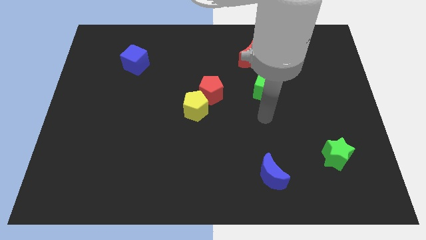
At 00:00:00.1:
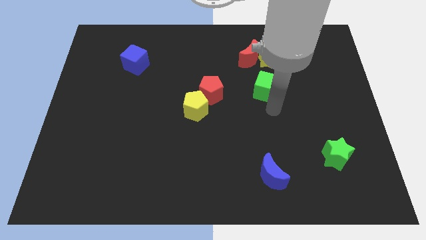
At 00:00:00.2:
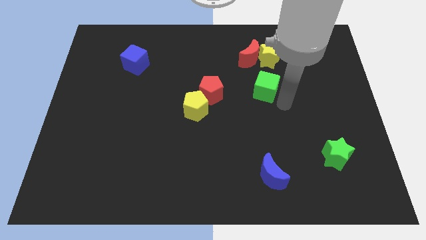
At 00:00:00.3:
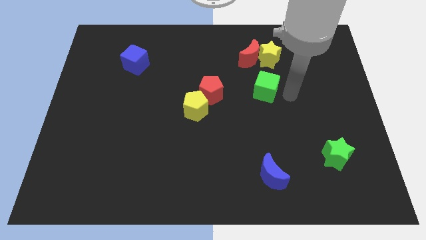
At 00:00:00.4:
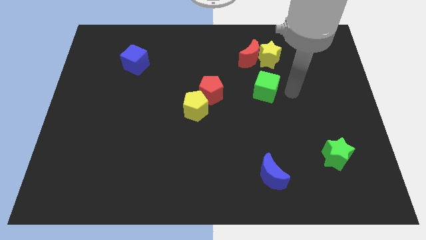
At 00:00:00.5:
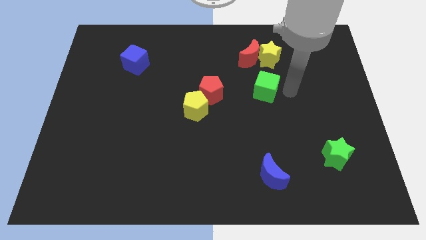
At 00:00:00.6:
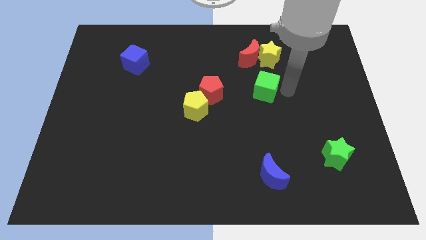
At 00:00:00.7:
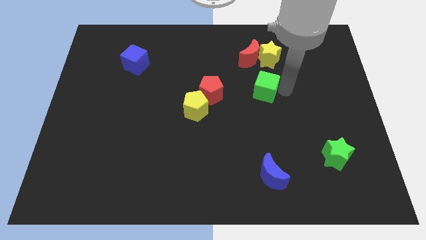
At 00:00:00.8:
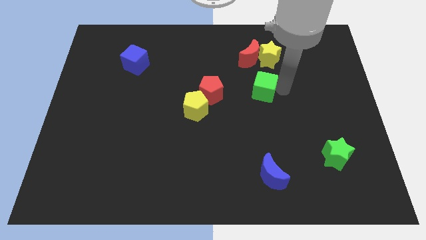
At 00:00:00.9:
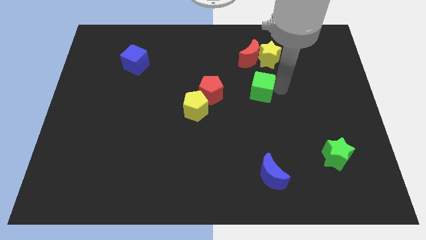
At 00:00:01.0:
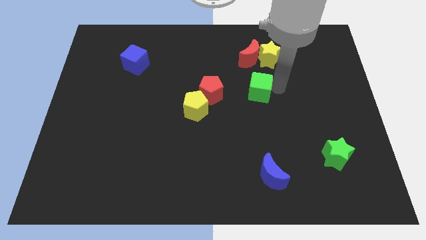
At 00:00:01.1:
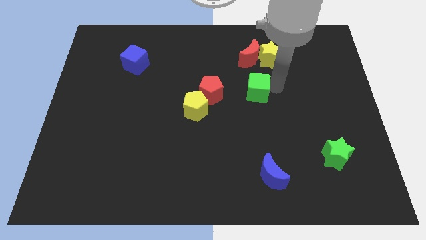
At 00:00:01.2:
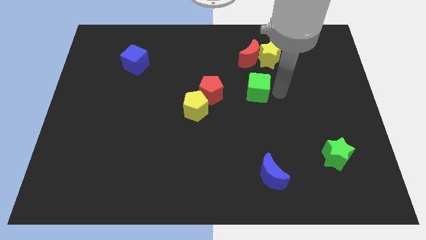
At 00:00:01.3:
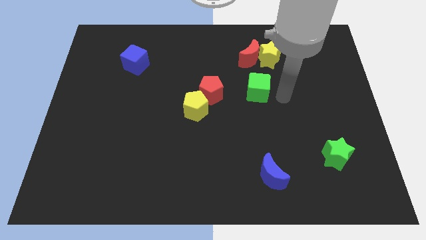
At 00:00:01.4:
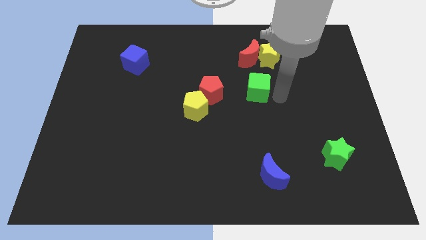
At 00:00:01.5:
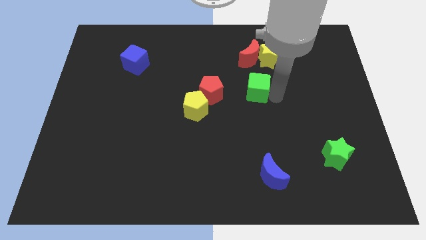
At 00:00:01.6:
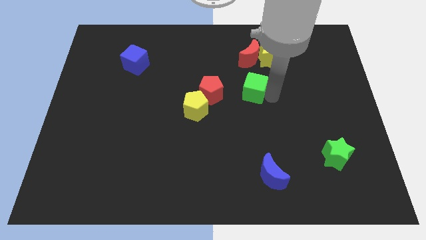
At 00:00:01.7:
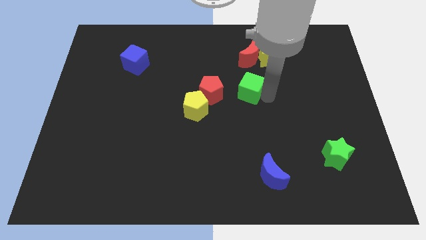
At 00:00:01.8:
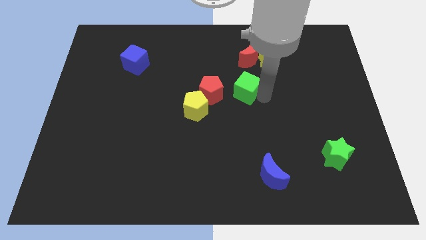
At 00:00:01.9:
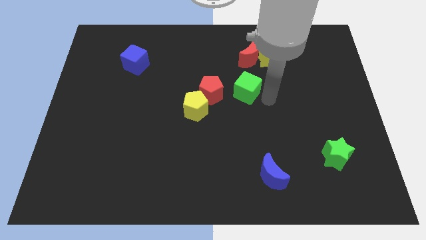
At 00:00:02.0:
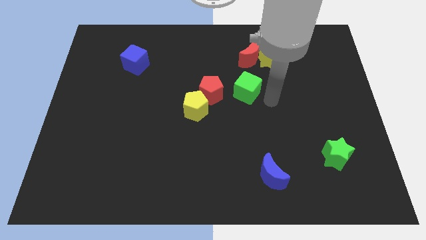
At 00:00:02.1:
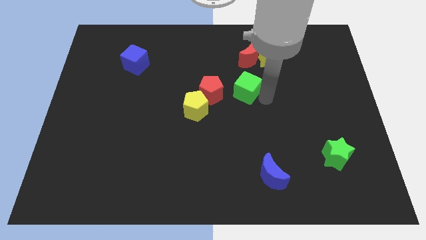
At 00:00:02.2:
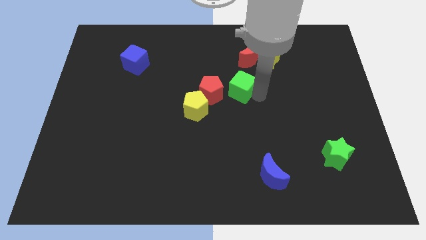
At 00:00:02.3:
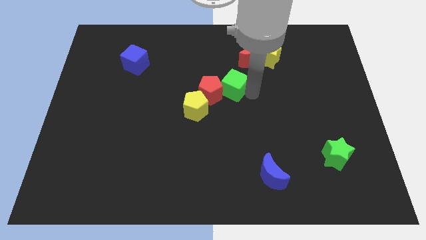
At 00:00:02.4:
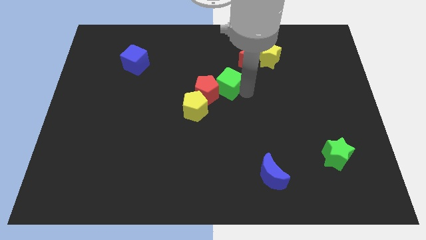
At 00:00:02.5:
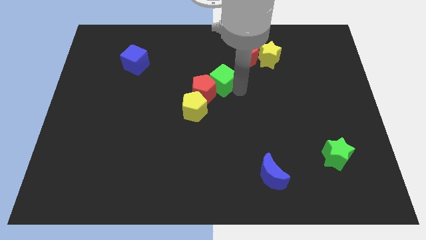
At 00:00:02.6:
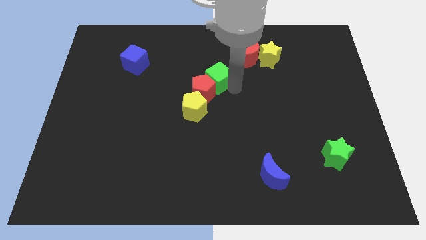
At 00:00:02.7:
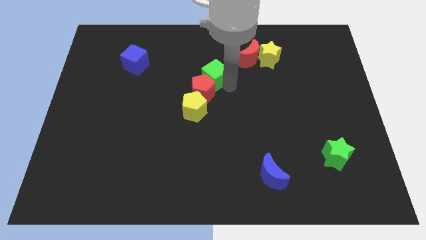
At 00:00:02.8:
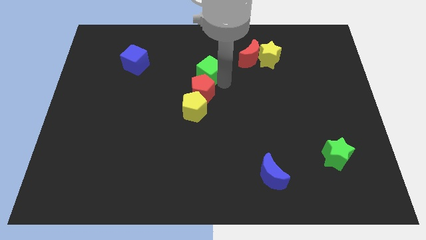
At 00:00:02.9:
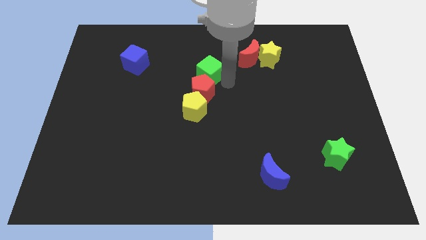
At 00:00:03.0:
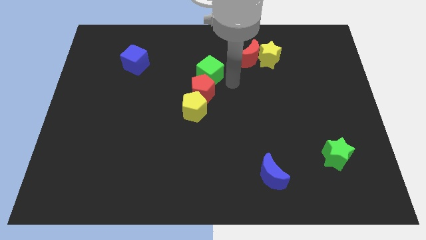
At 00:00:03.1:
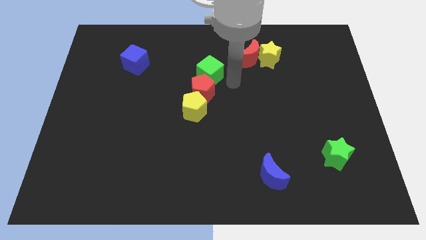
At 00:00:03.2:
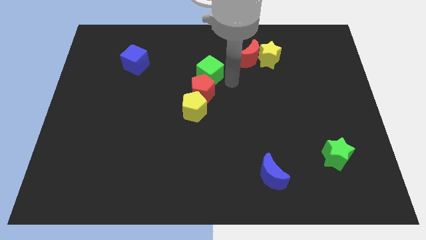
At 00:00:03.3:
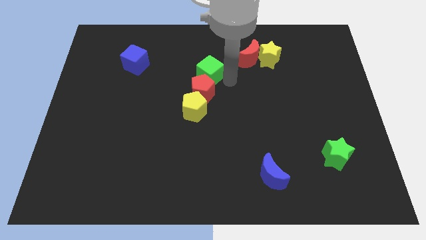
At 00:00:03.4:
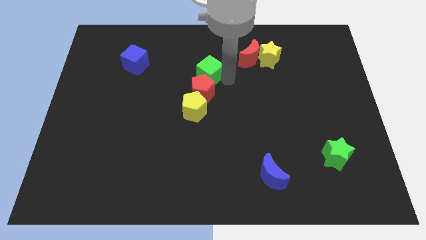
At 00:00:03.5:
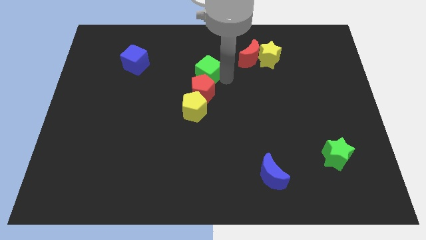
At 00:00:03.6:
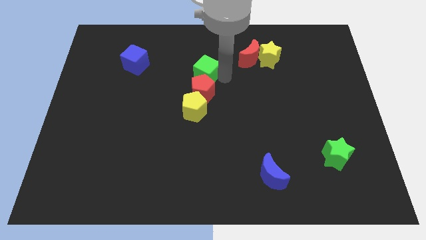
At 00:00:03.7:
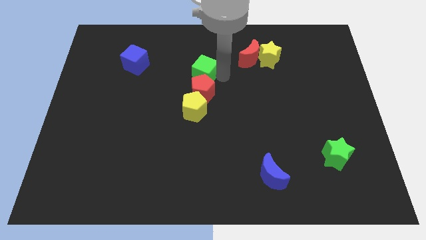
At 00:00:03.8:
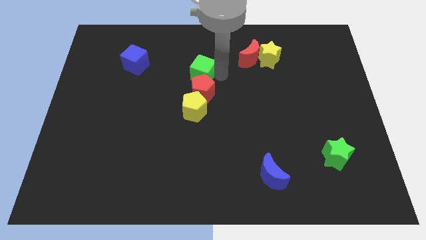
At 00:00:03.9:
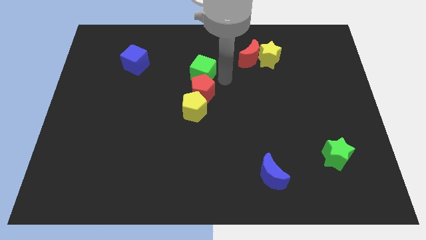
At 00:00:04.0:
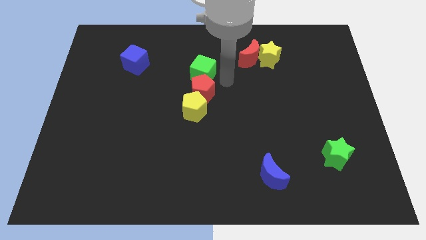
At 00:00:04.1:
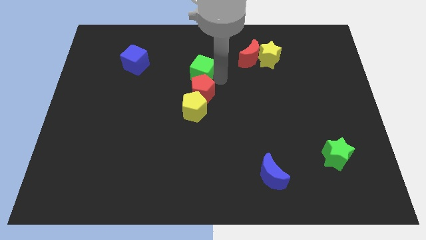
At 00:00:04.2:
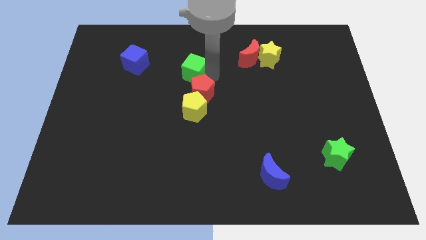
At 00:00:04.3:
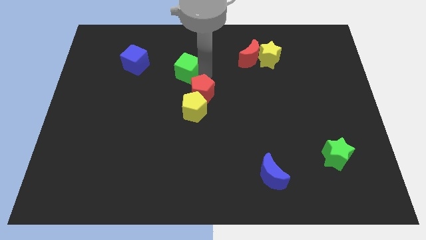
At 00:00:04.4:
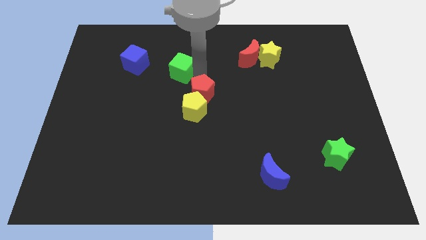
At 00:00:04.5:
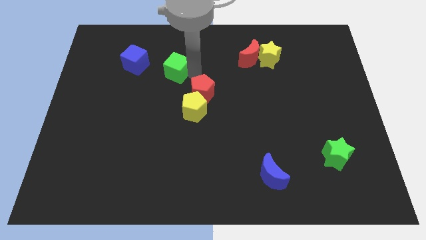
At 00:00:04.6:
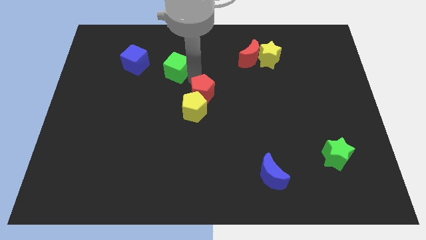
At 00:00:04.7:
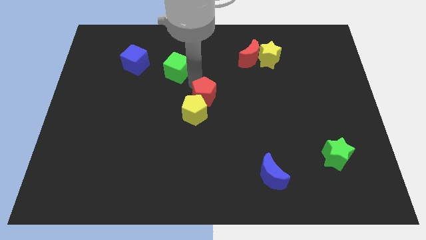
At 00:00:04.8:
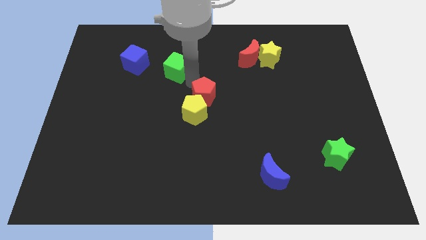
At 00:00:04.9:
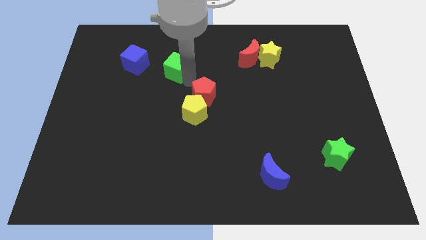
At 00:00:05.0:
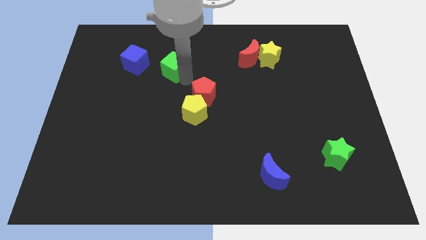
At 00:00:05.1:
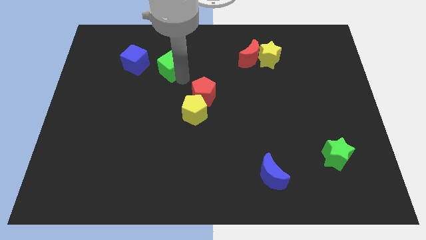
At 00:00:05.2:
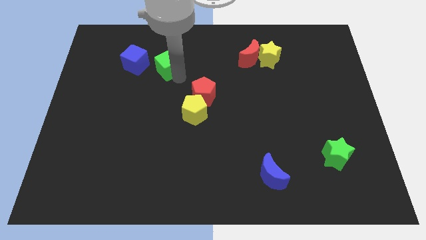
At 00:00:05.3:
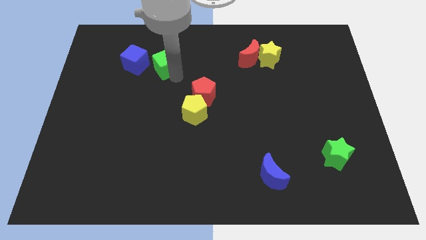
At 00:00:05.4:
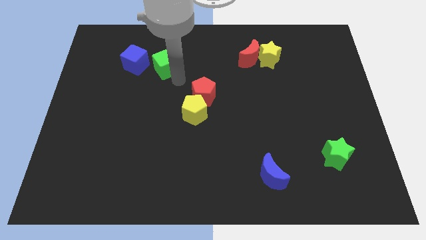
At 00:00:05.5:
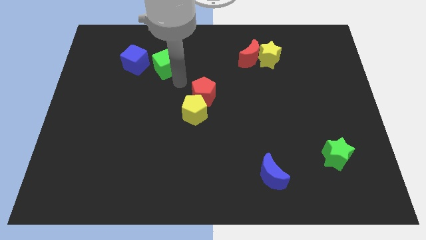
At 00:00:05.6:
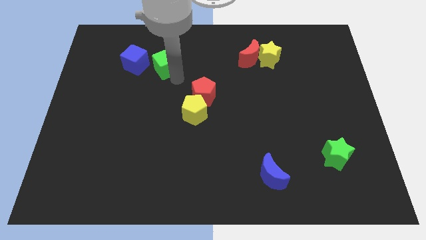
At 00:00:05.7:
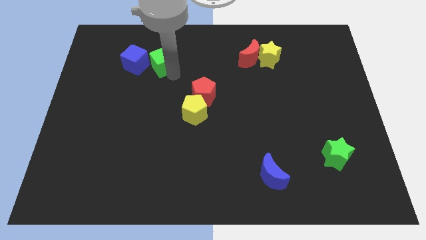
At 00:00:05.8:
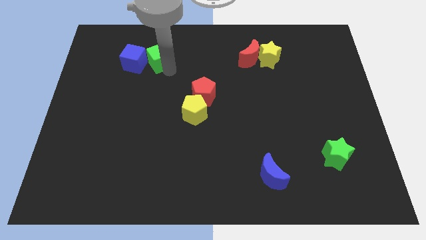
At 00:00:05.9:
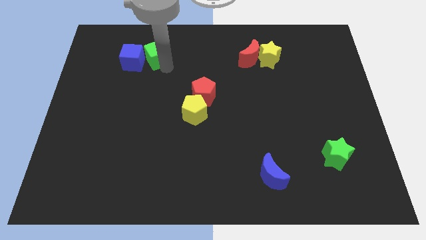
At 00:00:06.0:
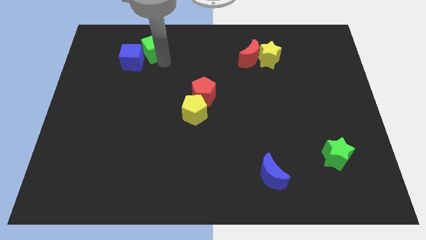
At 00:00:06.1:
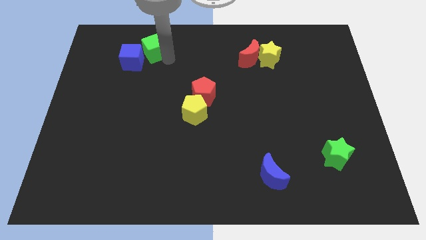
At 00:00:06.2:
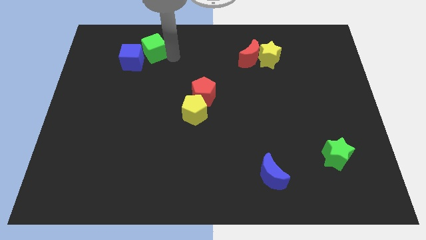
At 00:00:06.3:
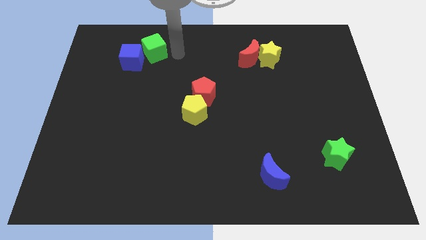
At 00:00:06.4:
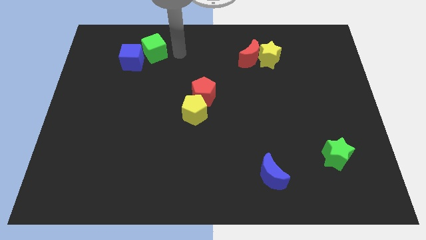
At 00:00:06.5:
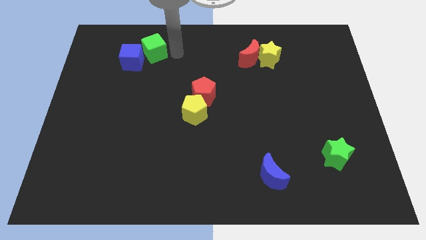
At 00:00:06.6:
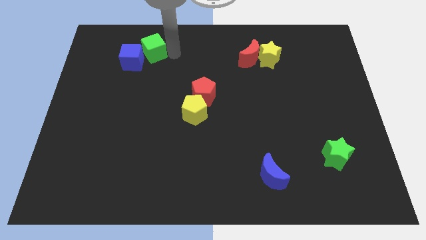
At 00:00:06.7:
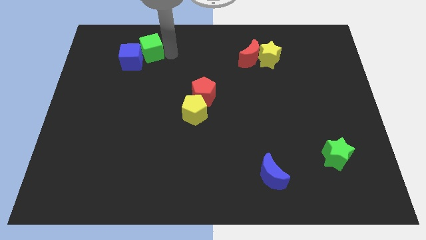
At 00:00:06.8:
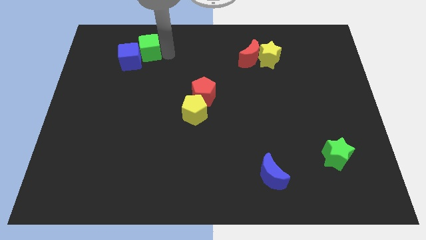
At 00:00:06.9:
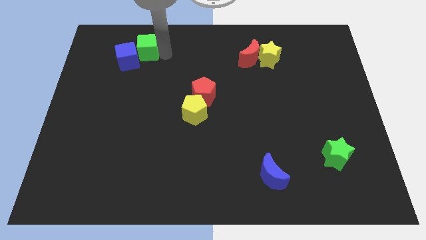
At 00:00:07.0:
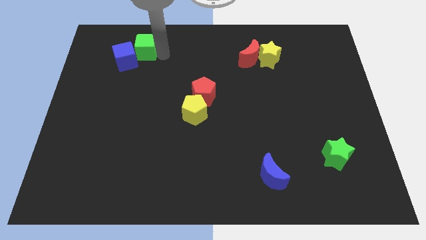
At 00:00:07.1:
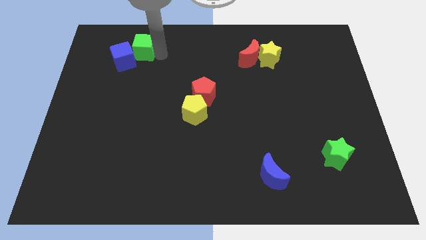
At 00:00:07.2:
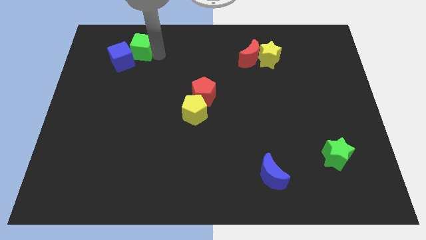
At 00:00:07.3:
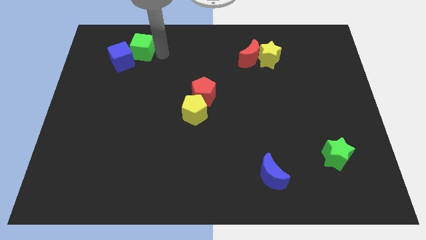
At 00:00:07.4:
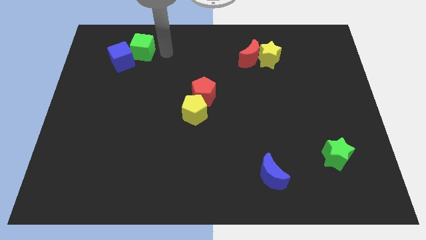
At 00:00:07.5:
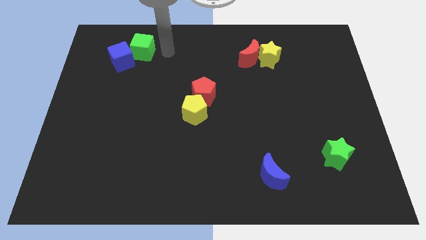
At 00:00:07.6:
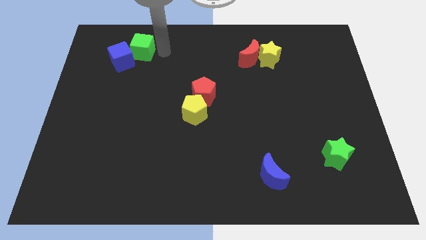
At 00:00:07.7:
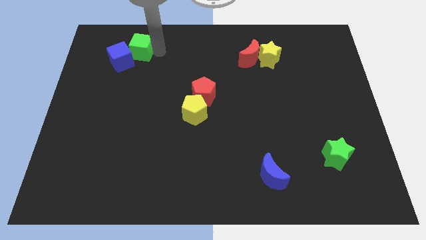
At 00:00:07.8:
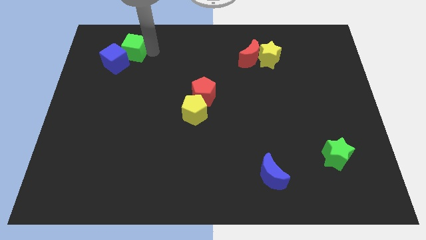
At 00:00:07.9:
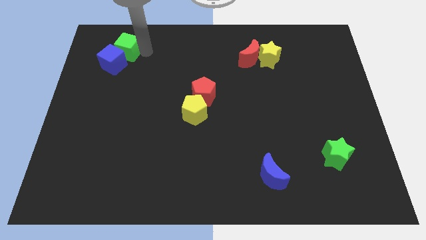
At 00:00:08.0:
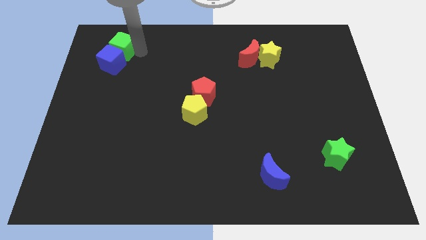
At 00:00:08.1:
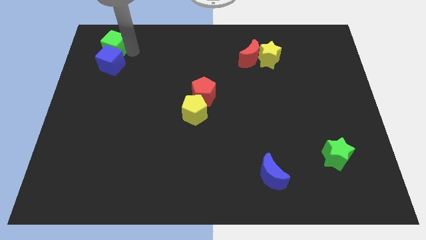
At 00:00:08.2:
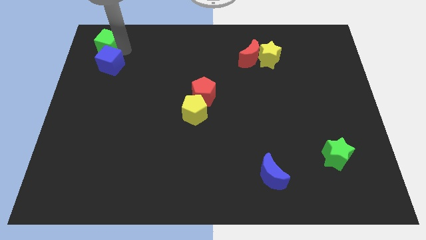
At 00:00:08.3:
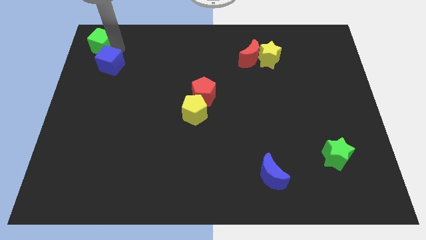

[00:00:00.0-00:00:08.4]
slide the green cube to the top left
